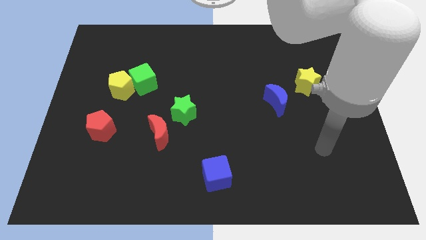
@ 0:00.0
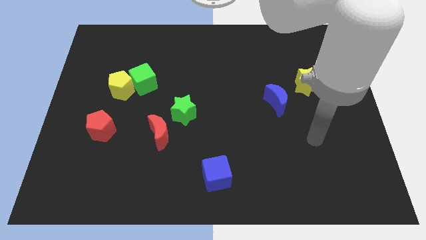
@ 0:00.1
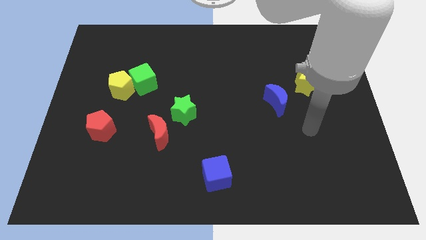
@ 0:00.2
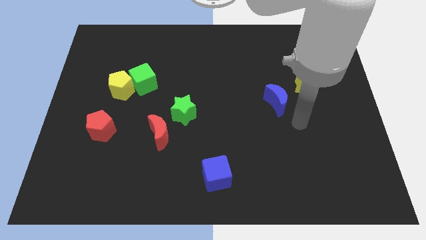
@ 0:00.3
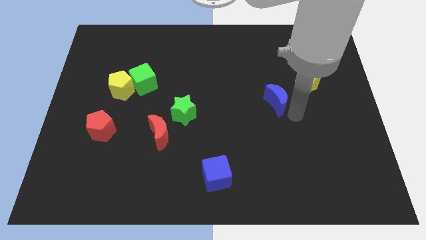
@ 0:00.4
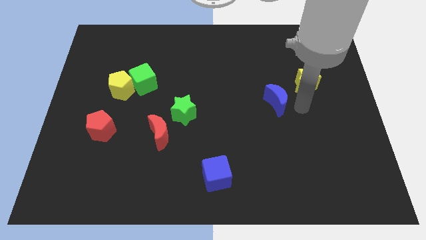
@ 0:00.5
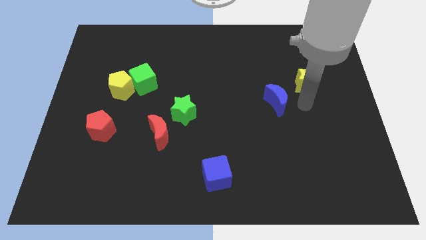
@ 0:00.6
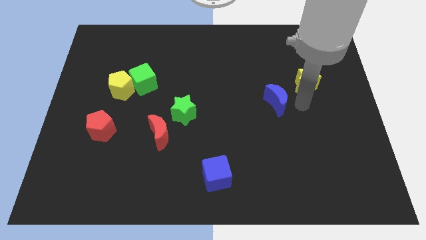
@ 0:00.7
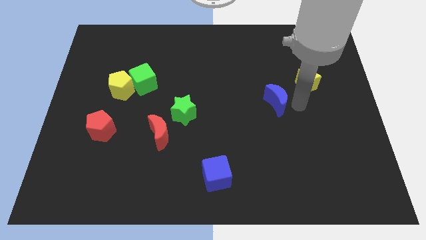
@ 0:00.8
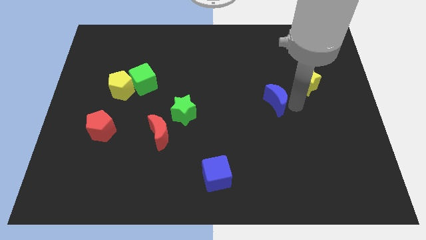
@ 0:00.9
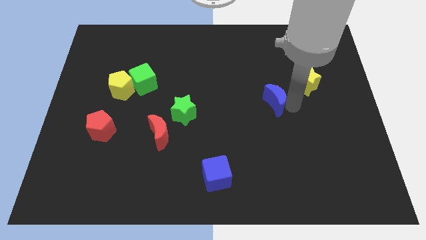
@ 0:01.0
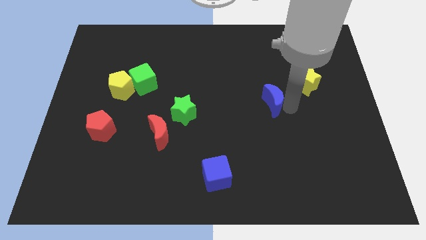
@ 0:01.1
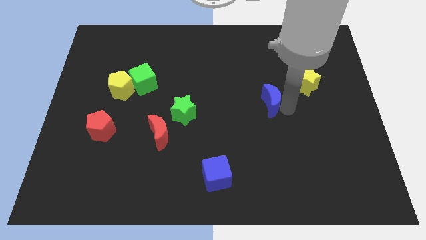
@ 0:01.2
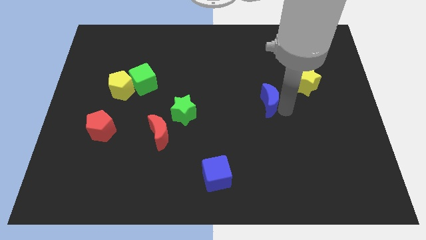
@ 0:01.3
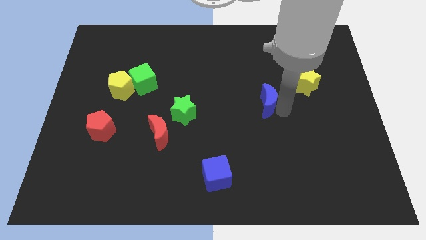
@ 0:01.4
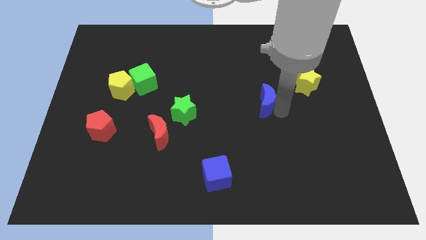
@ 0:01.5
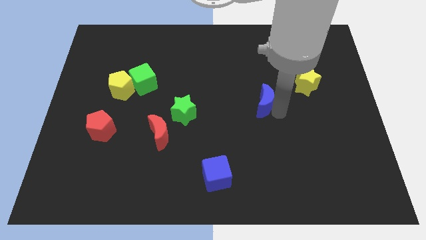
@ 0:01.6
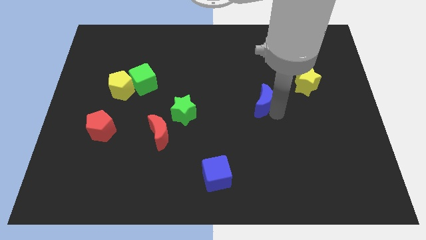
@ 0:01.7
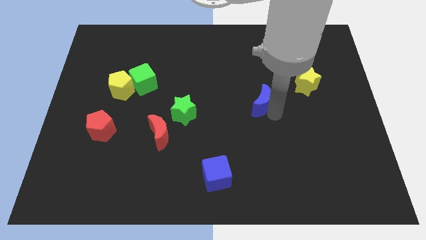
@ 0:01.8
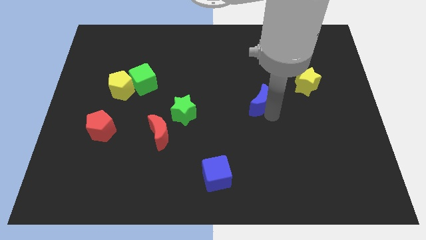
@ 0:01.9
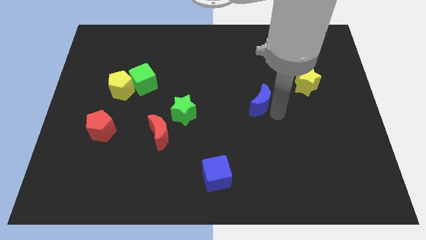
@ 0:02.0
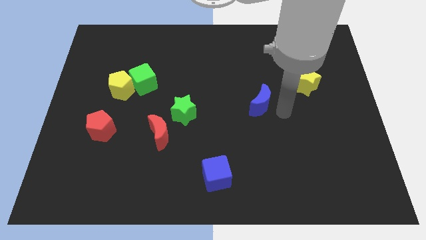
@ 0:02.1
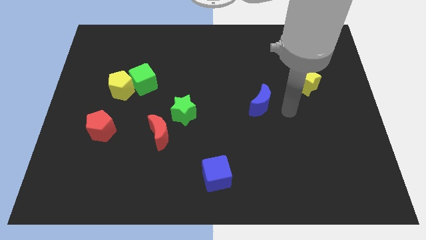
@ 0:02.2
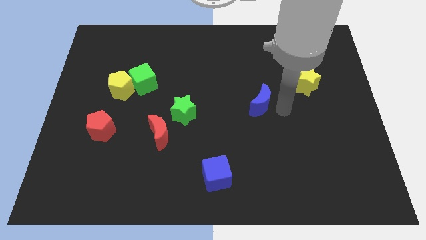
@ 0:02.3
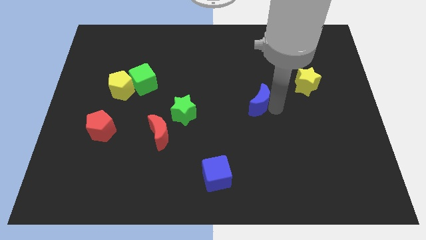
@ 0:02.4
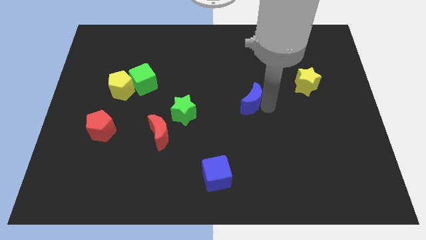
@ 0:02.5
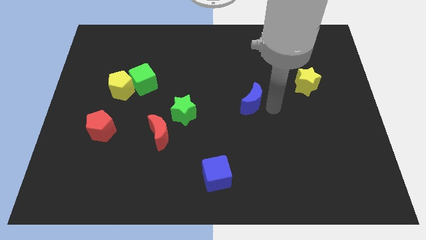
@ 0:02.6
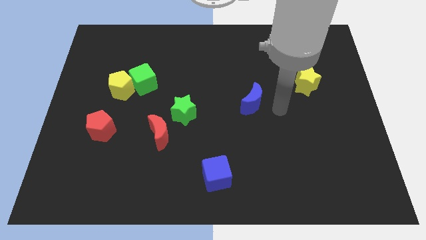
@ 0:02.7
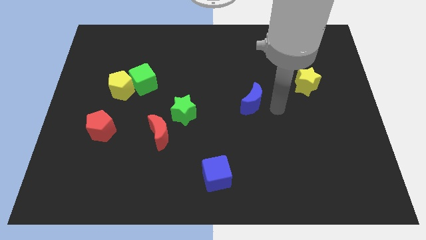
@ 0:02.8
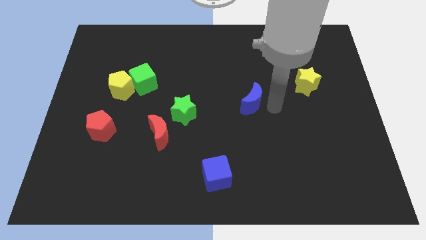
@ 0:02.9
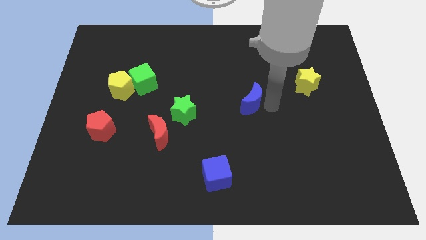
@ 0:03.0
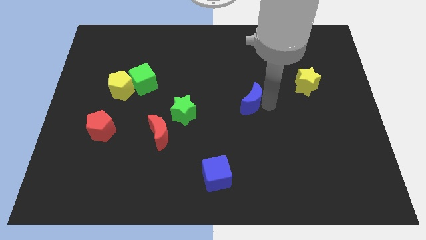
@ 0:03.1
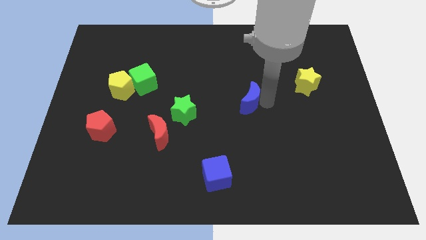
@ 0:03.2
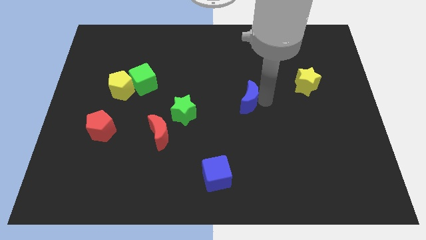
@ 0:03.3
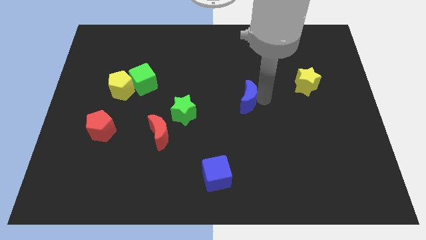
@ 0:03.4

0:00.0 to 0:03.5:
move the blue moon to the left a little

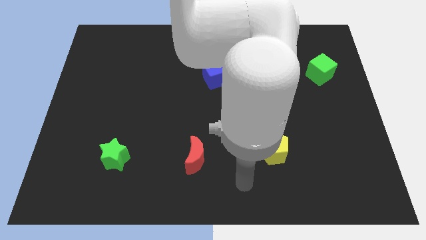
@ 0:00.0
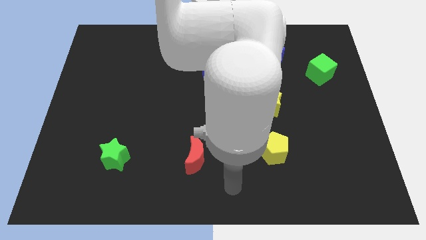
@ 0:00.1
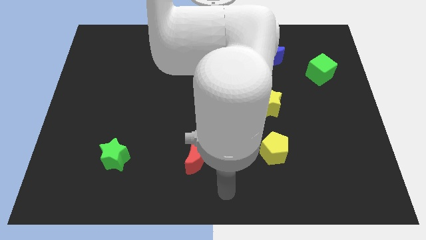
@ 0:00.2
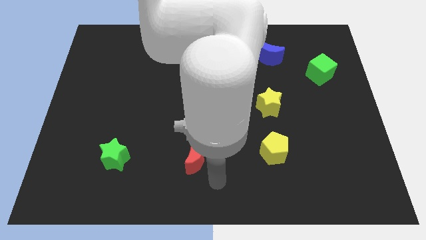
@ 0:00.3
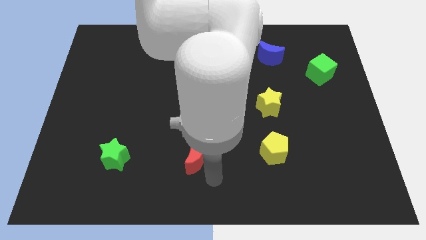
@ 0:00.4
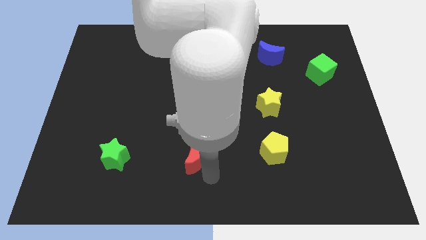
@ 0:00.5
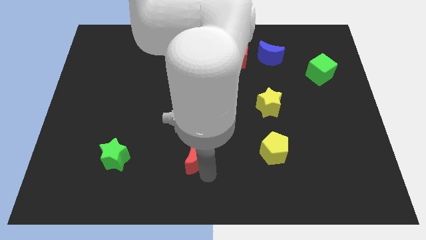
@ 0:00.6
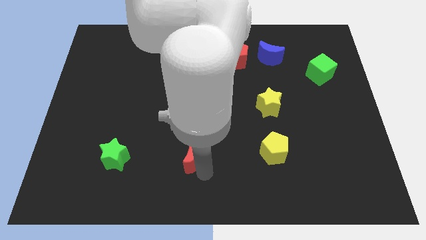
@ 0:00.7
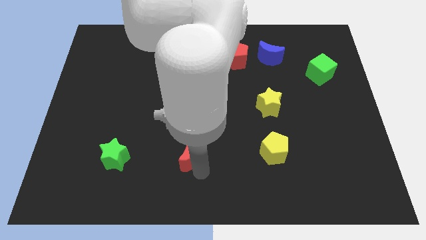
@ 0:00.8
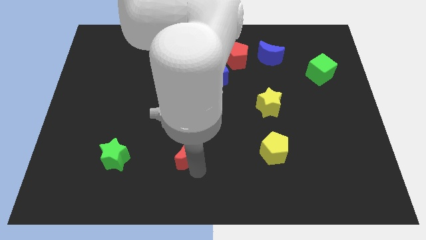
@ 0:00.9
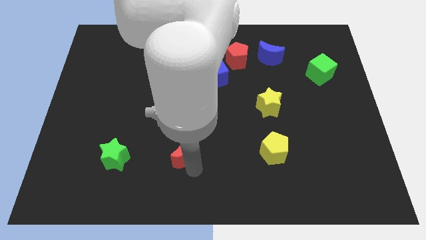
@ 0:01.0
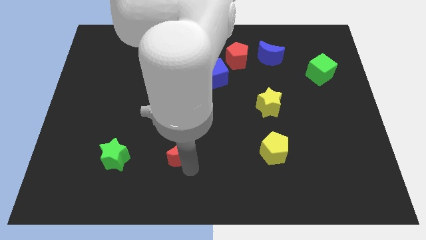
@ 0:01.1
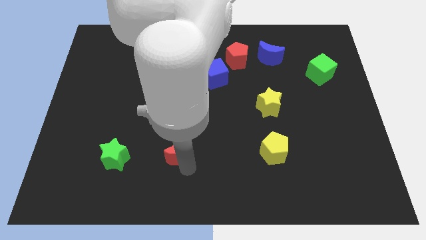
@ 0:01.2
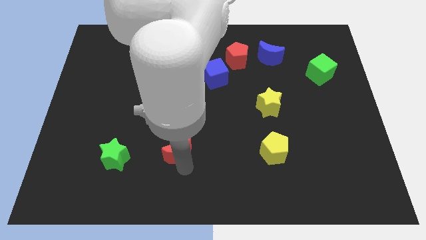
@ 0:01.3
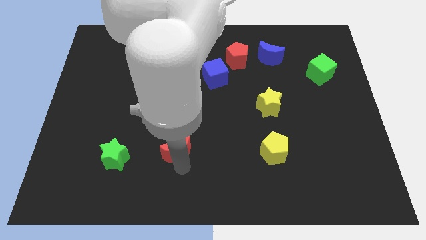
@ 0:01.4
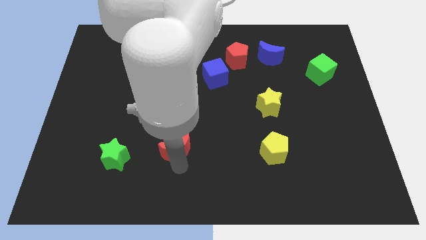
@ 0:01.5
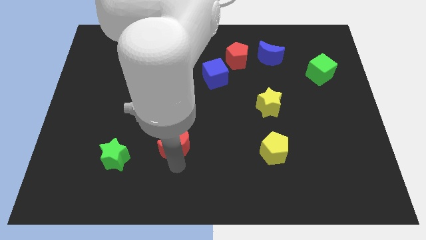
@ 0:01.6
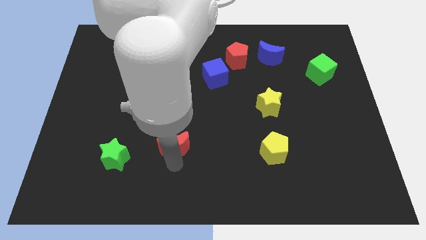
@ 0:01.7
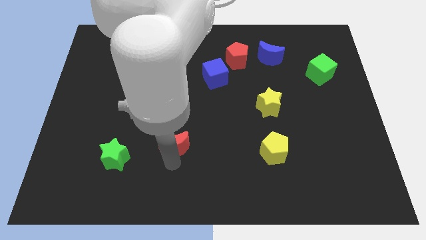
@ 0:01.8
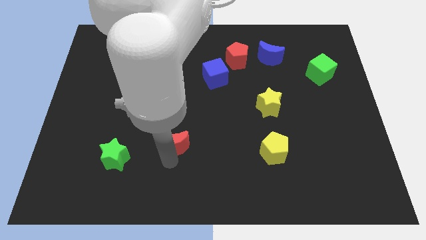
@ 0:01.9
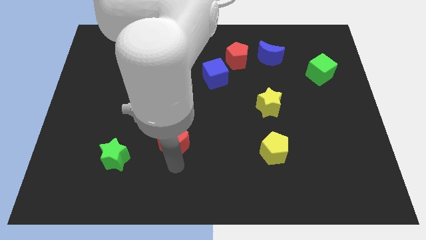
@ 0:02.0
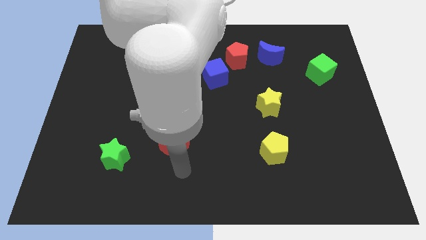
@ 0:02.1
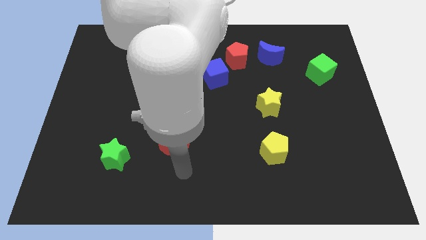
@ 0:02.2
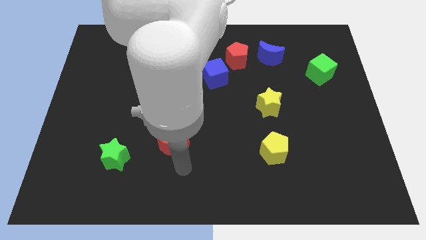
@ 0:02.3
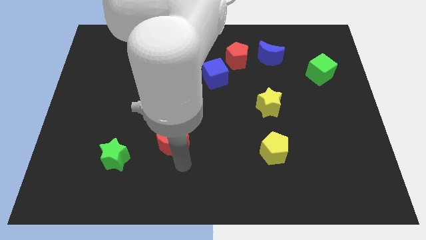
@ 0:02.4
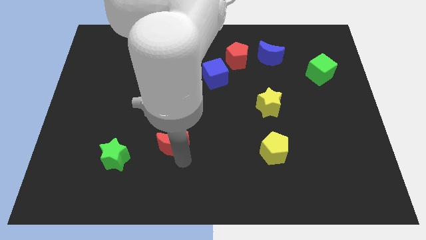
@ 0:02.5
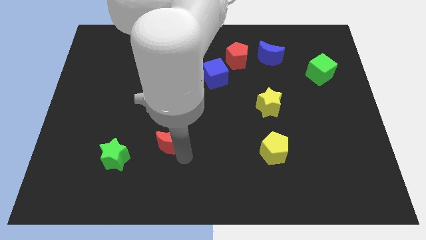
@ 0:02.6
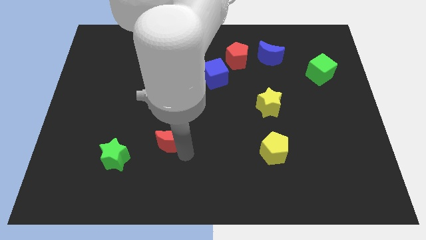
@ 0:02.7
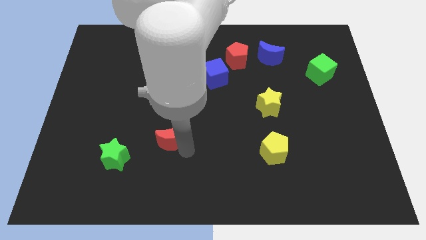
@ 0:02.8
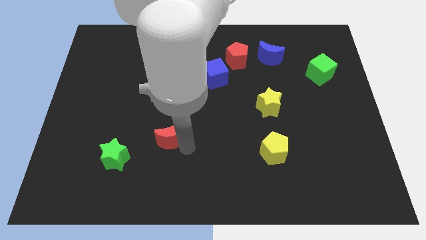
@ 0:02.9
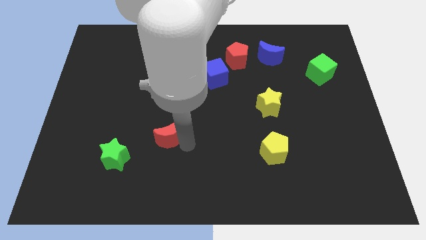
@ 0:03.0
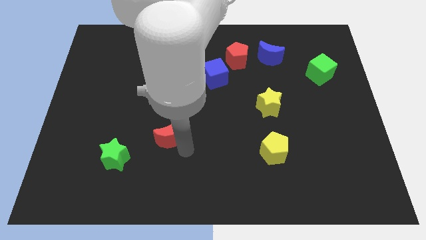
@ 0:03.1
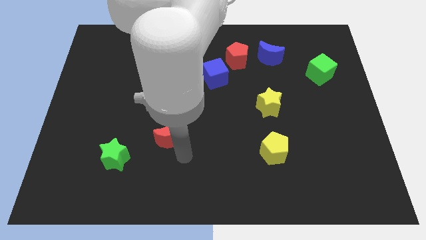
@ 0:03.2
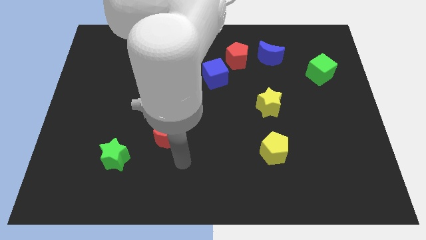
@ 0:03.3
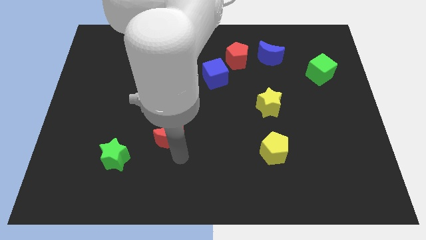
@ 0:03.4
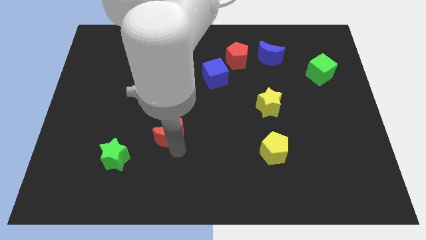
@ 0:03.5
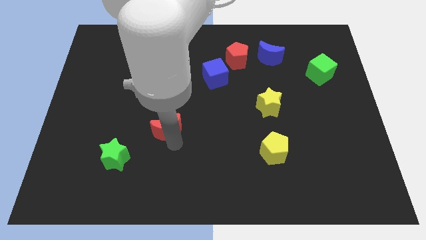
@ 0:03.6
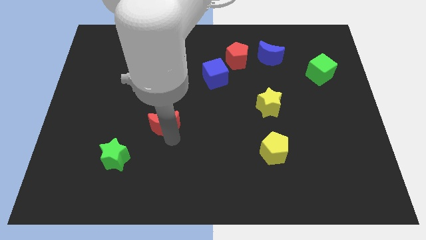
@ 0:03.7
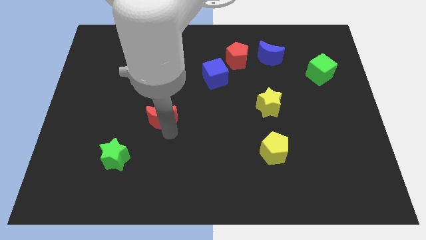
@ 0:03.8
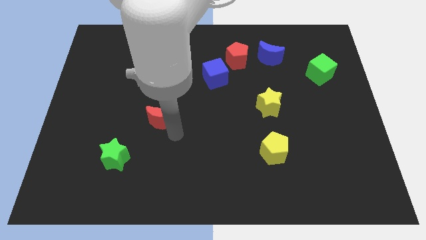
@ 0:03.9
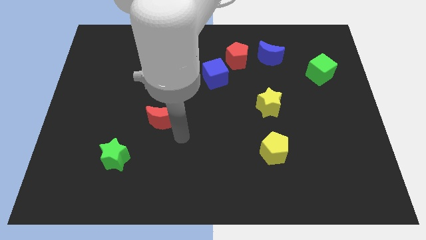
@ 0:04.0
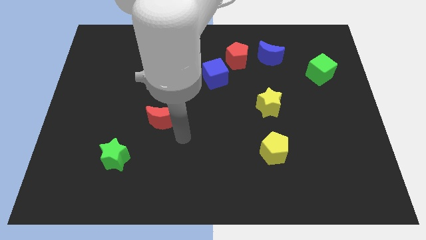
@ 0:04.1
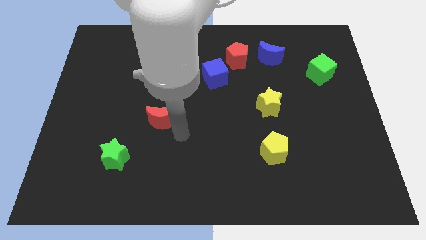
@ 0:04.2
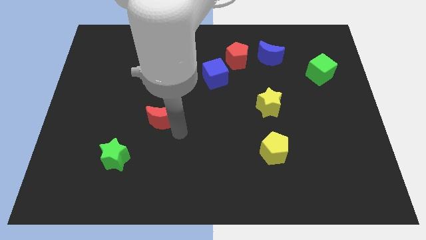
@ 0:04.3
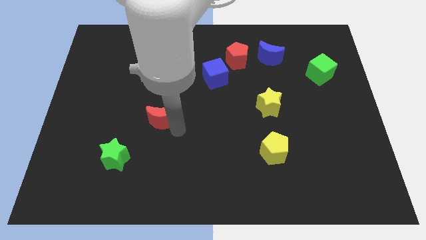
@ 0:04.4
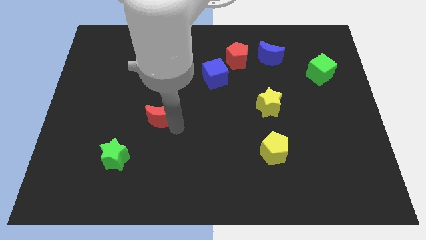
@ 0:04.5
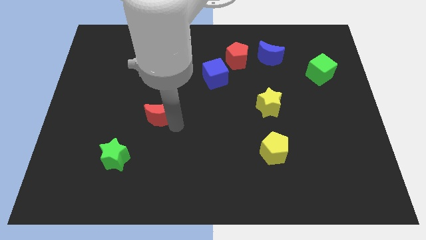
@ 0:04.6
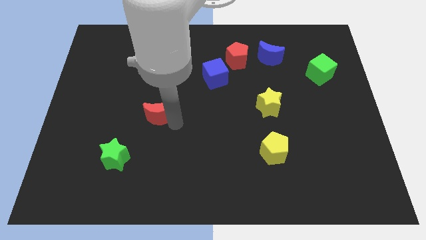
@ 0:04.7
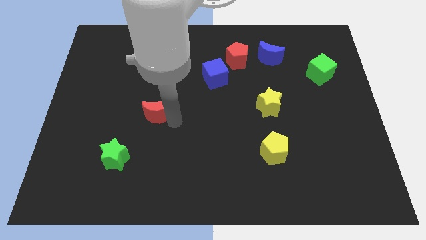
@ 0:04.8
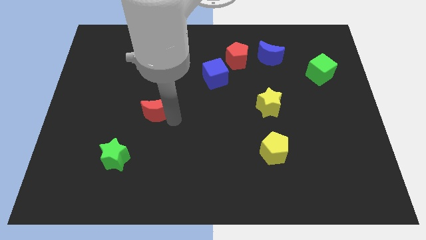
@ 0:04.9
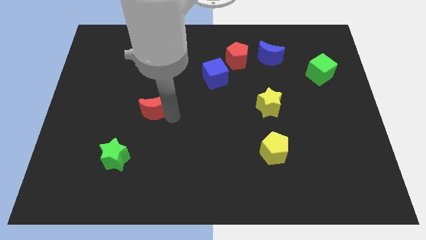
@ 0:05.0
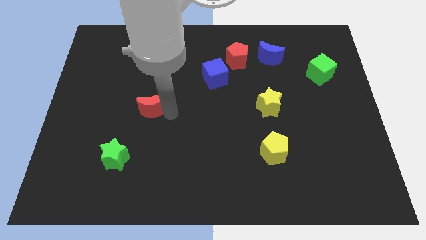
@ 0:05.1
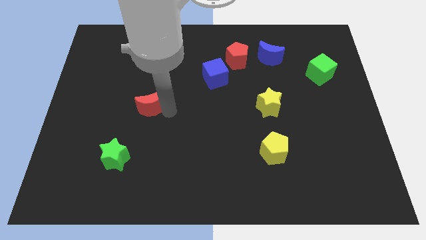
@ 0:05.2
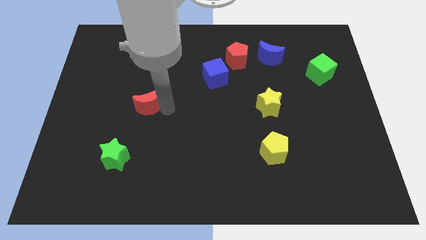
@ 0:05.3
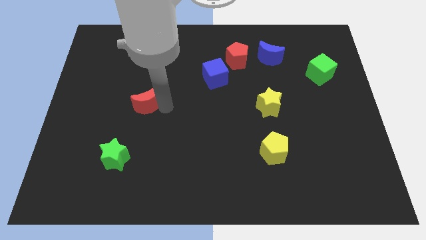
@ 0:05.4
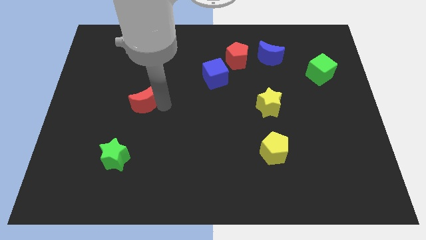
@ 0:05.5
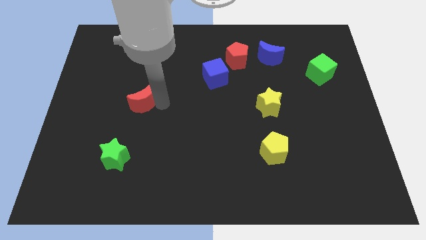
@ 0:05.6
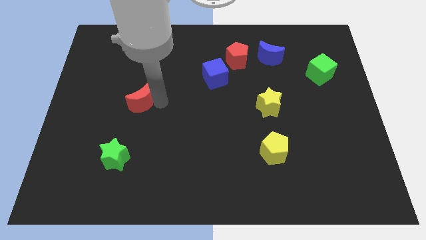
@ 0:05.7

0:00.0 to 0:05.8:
move the red moon upwards and left
